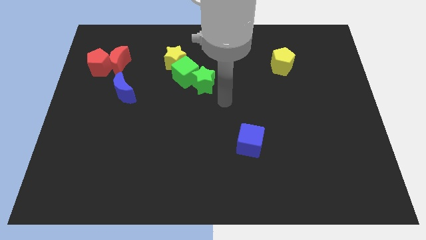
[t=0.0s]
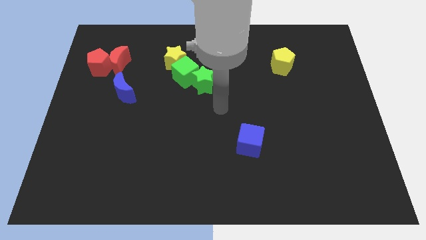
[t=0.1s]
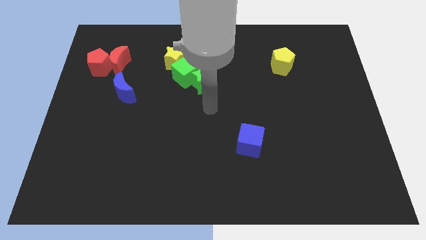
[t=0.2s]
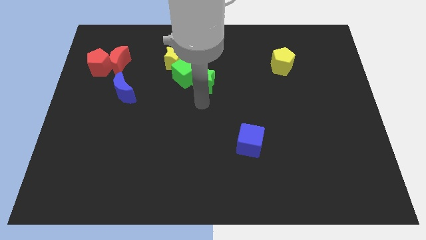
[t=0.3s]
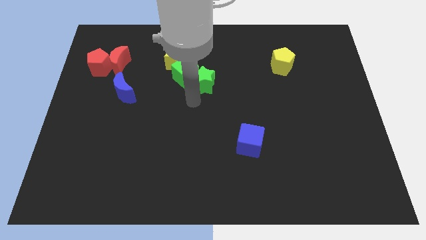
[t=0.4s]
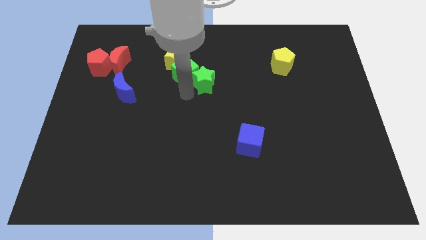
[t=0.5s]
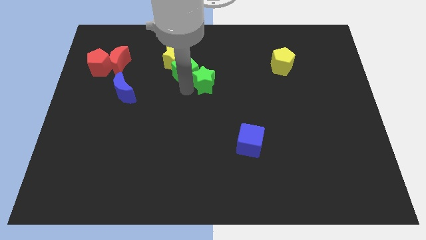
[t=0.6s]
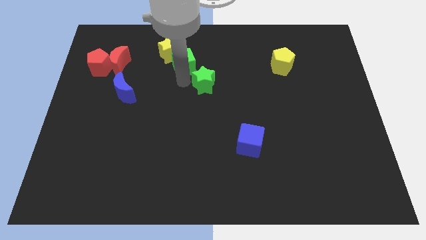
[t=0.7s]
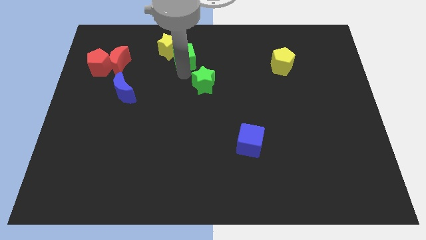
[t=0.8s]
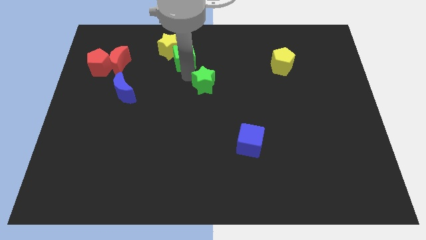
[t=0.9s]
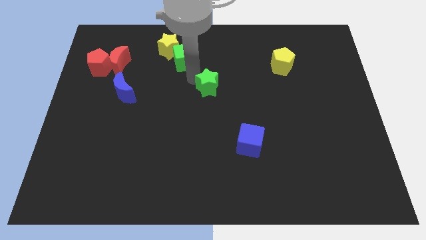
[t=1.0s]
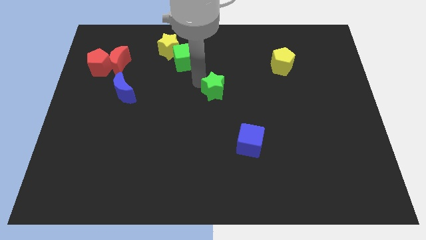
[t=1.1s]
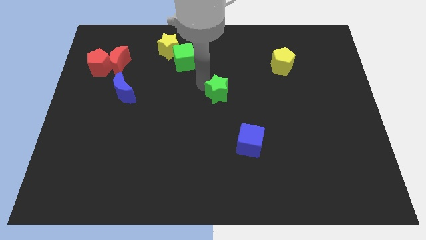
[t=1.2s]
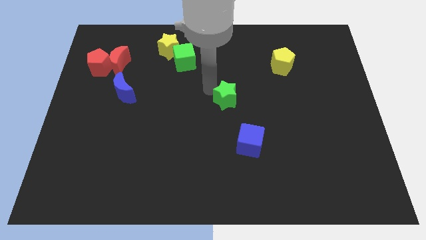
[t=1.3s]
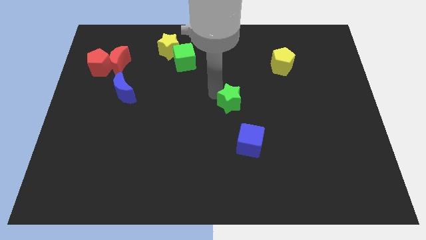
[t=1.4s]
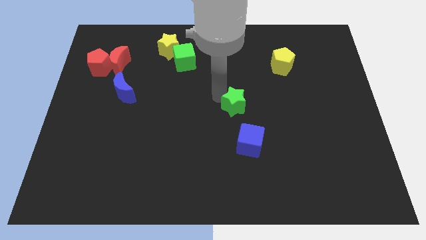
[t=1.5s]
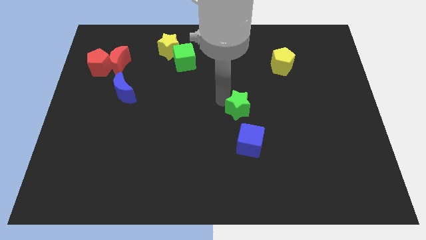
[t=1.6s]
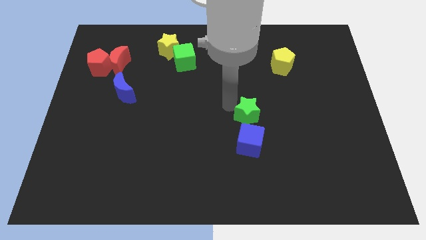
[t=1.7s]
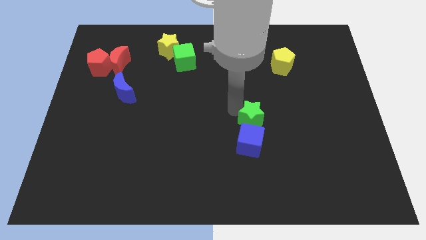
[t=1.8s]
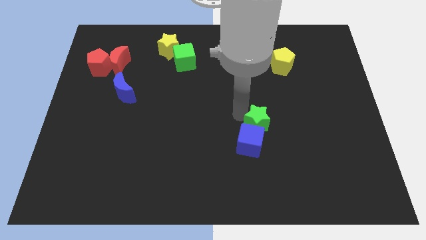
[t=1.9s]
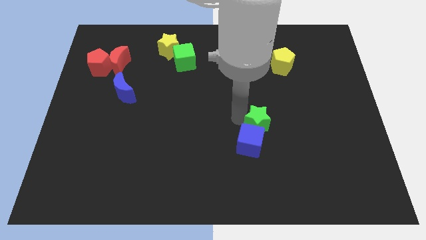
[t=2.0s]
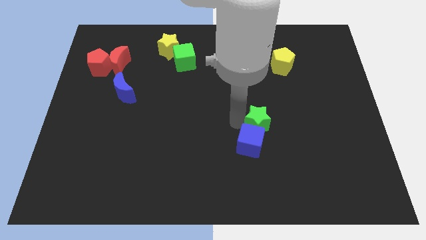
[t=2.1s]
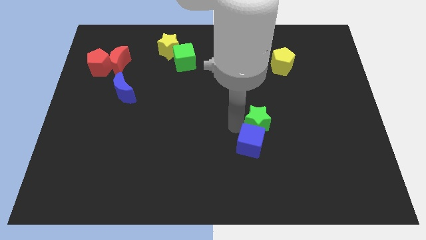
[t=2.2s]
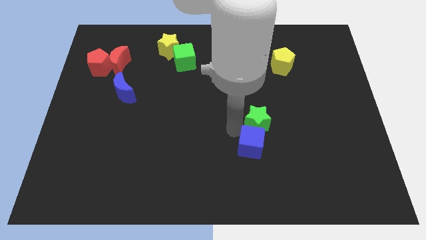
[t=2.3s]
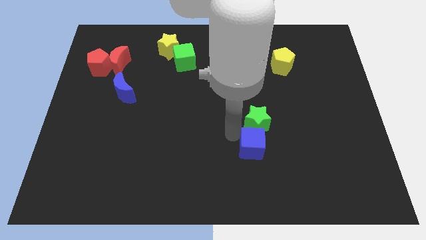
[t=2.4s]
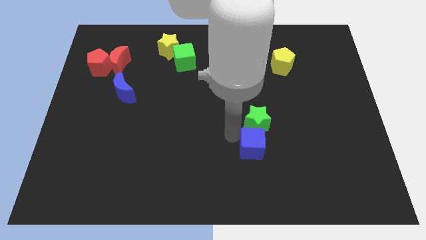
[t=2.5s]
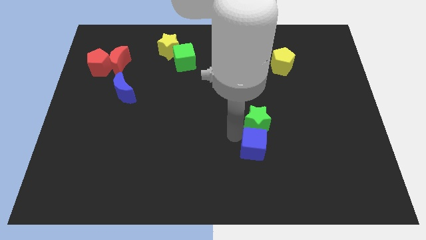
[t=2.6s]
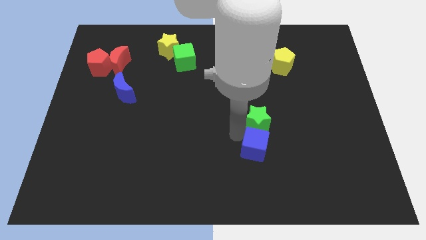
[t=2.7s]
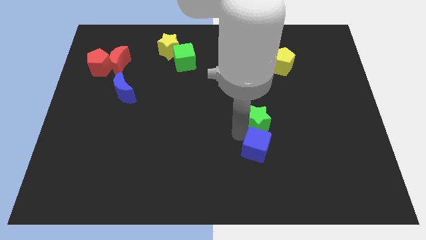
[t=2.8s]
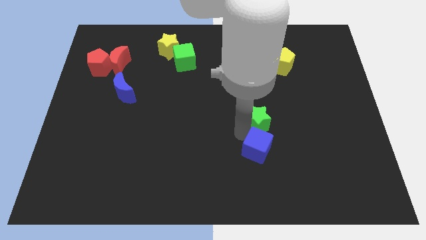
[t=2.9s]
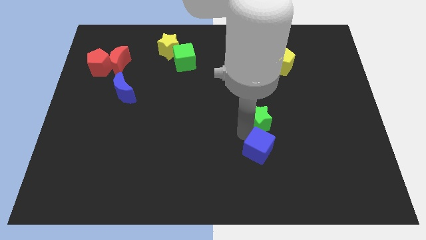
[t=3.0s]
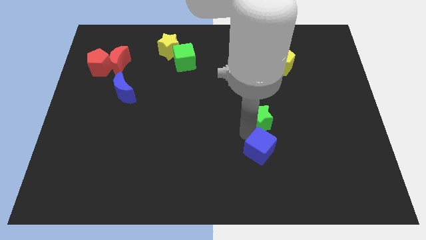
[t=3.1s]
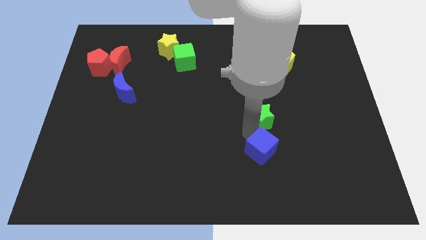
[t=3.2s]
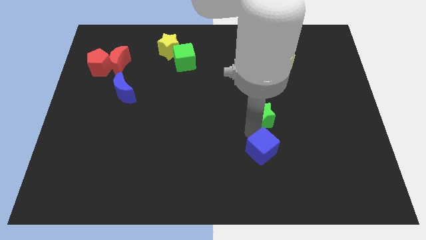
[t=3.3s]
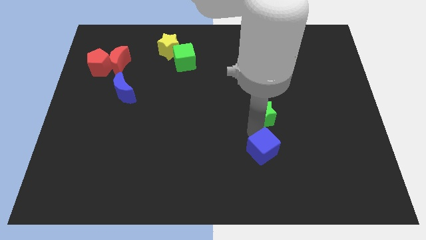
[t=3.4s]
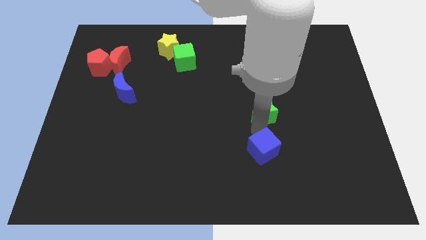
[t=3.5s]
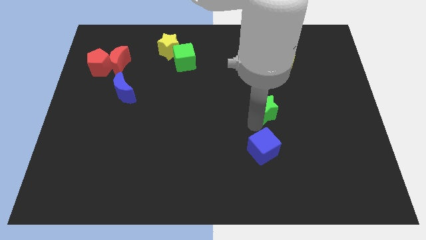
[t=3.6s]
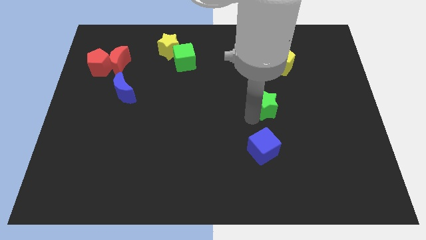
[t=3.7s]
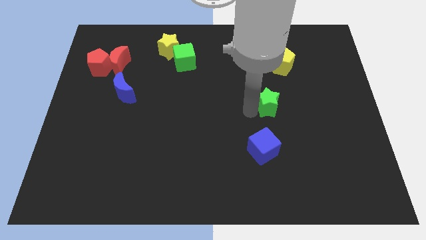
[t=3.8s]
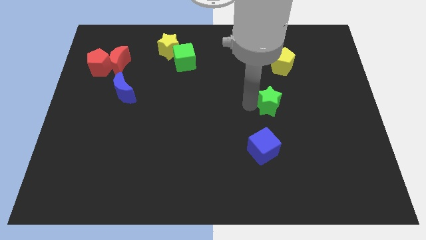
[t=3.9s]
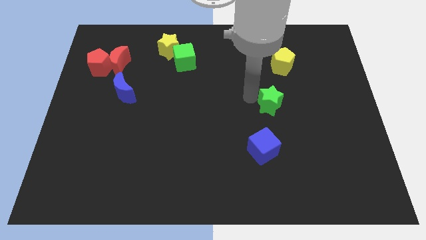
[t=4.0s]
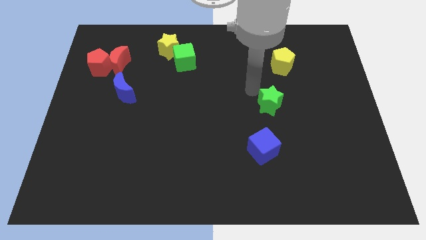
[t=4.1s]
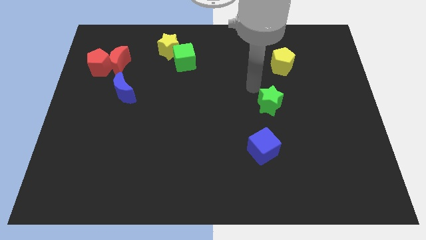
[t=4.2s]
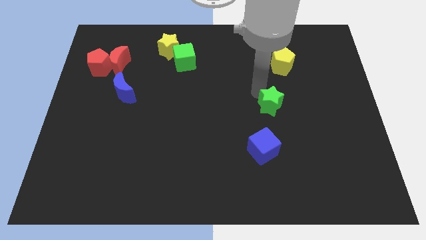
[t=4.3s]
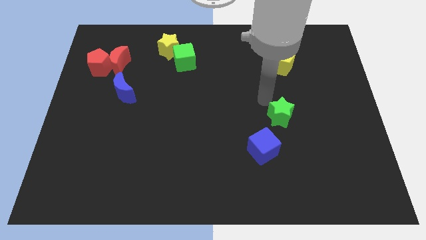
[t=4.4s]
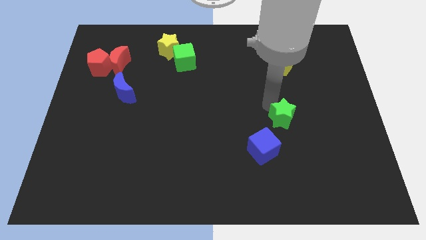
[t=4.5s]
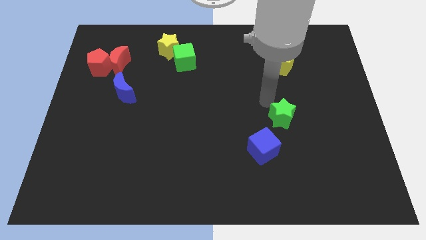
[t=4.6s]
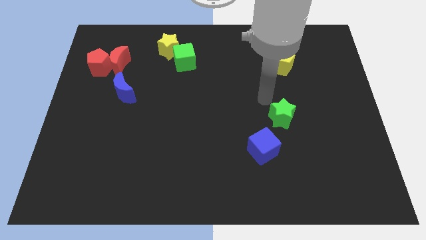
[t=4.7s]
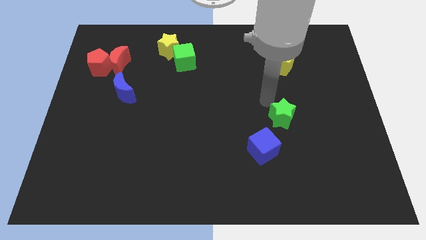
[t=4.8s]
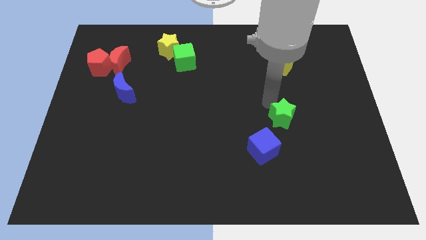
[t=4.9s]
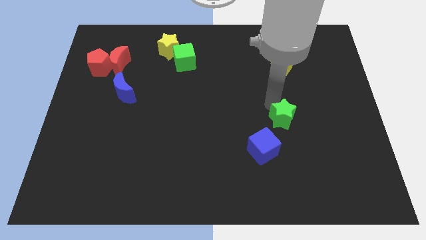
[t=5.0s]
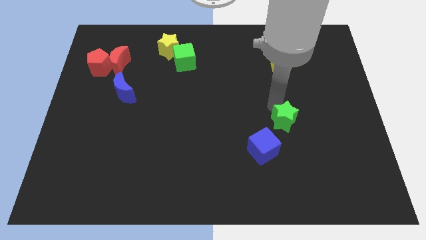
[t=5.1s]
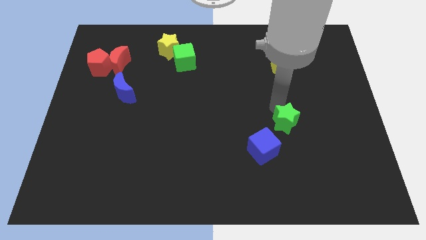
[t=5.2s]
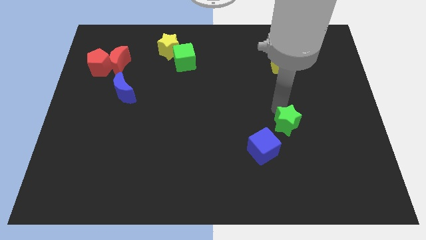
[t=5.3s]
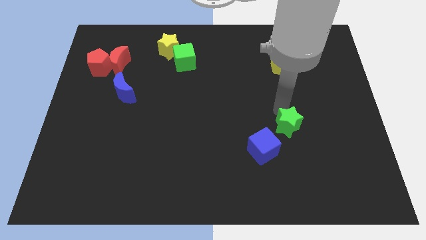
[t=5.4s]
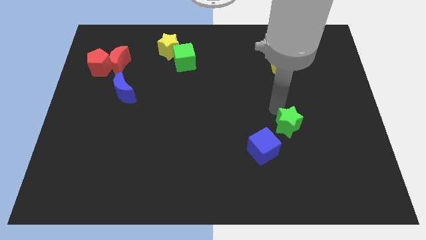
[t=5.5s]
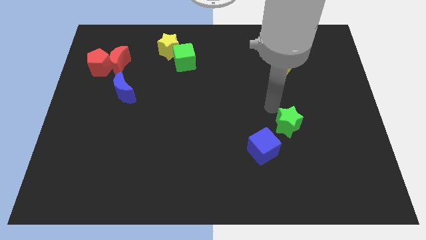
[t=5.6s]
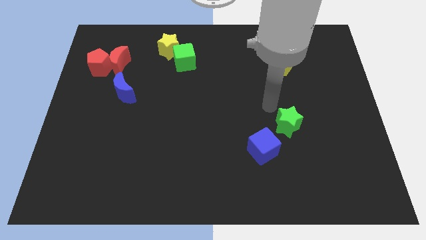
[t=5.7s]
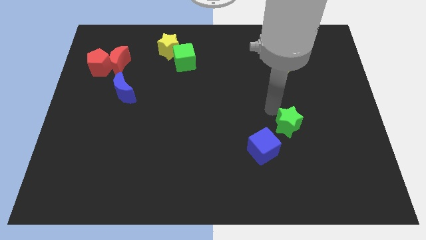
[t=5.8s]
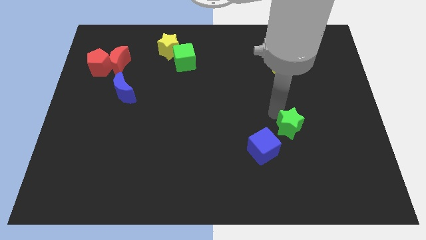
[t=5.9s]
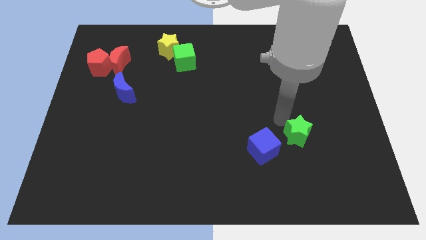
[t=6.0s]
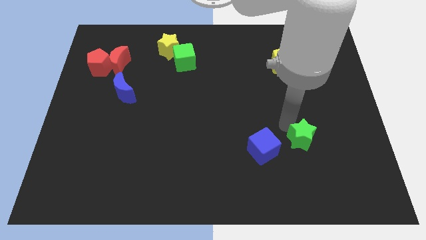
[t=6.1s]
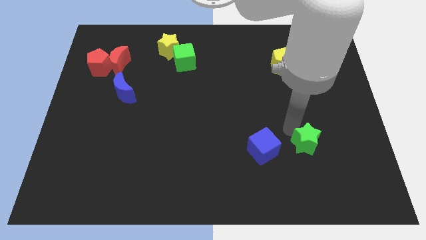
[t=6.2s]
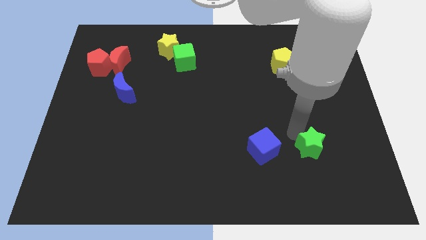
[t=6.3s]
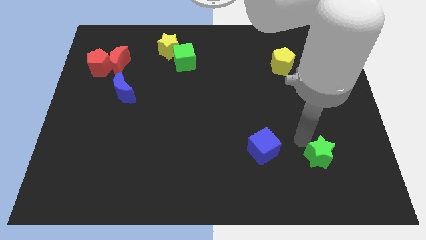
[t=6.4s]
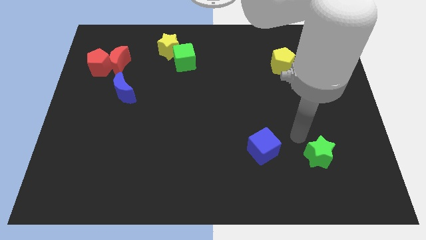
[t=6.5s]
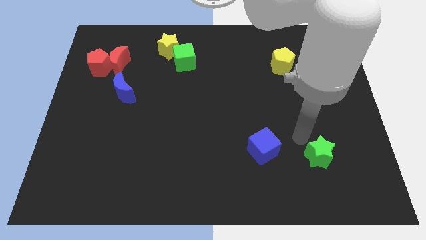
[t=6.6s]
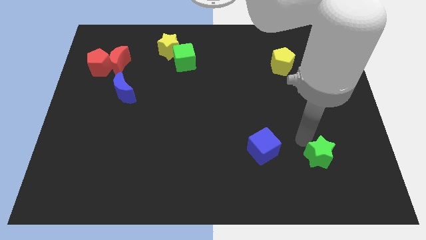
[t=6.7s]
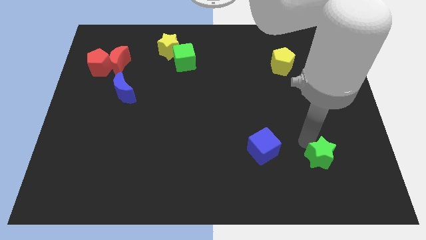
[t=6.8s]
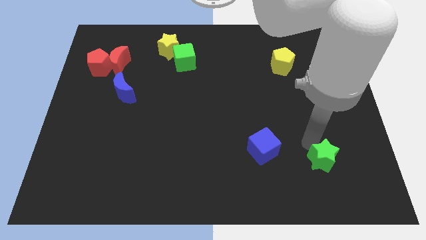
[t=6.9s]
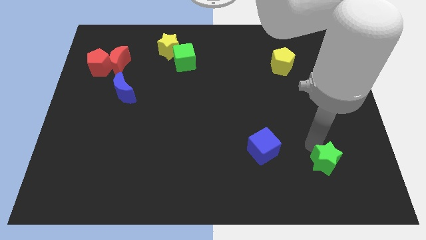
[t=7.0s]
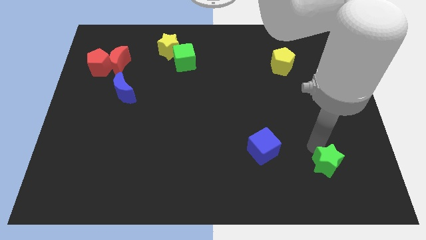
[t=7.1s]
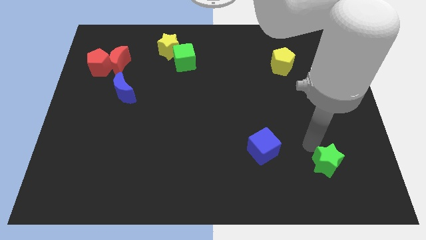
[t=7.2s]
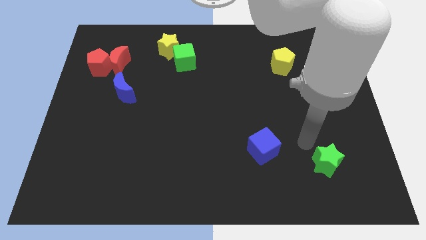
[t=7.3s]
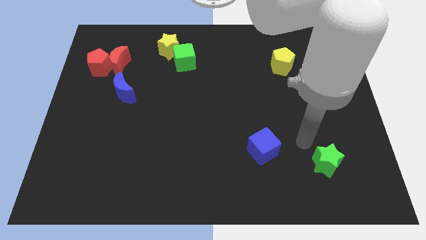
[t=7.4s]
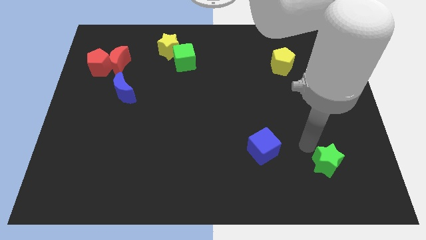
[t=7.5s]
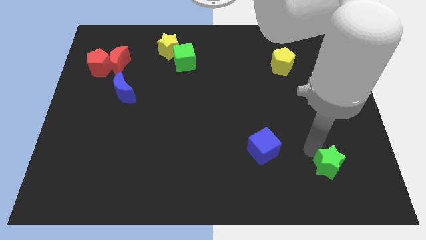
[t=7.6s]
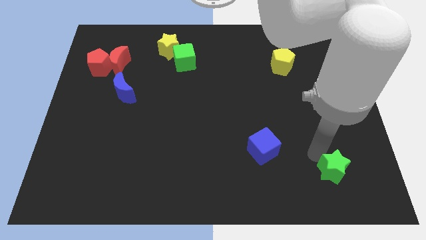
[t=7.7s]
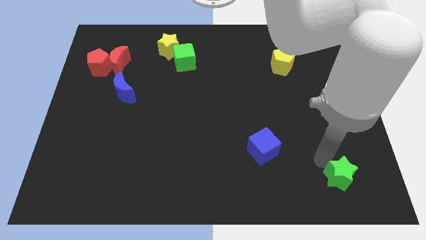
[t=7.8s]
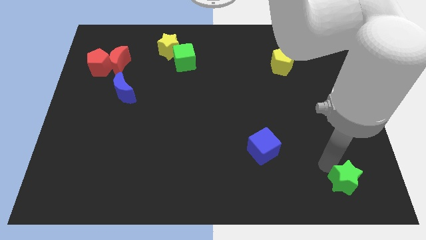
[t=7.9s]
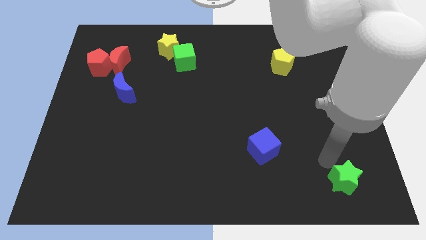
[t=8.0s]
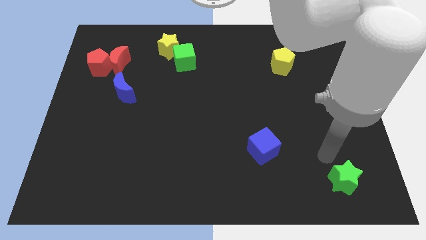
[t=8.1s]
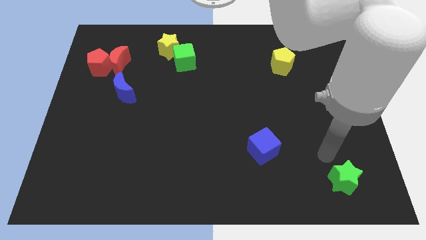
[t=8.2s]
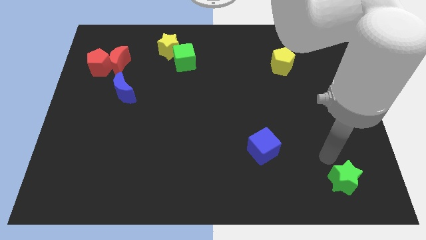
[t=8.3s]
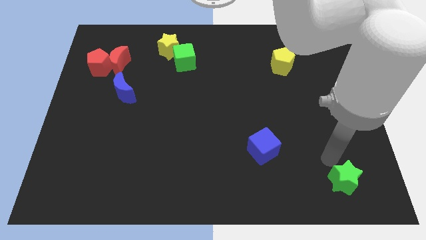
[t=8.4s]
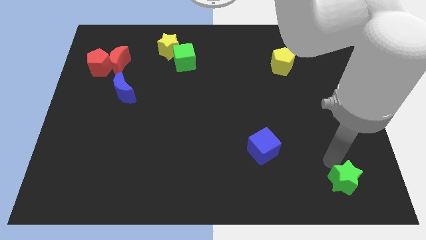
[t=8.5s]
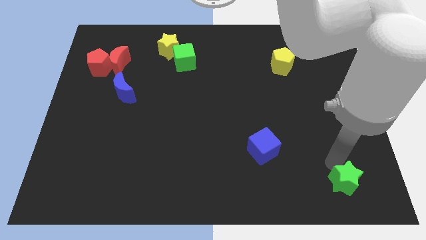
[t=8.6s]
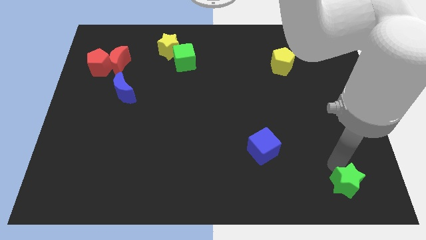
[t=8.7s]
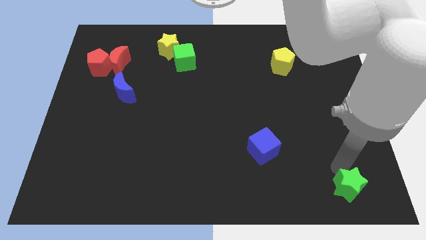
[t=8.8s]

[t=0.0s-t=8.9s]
move the green star to the bottom right corner
